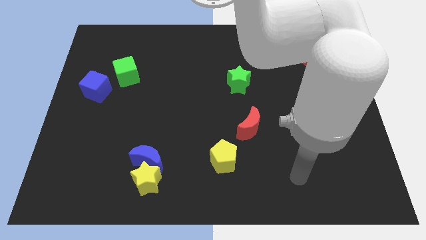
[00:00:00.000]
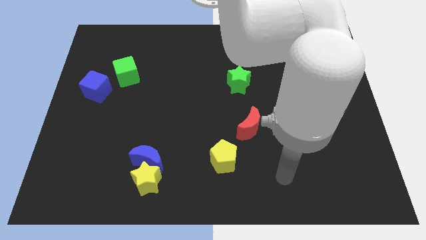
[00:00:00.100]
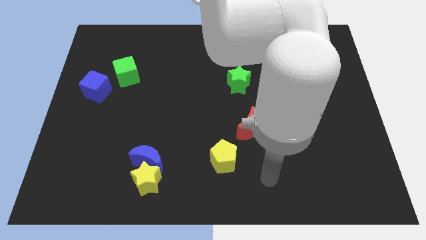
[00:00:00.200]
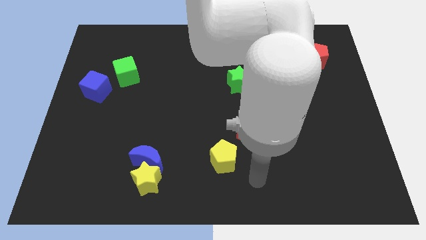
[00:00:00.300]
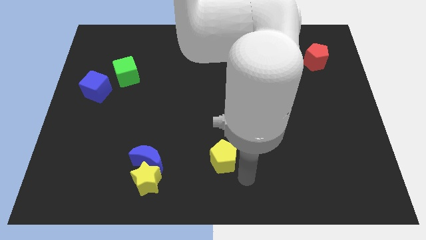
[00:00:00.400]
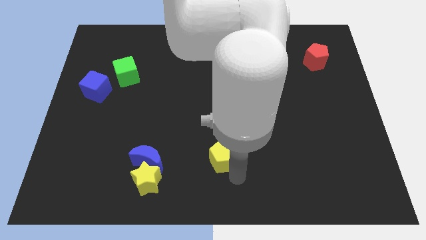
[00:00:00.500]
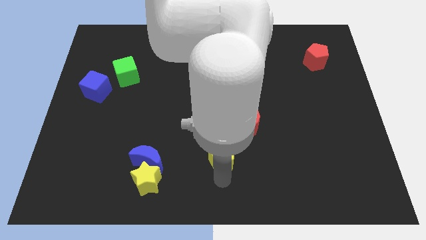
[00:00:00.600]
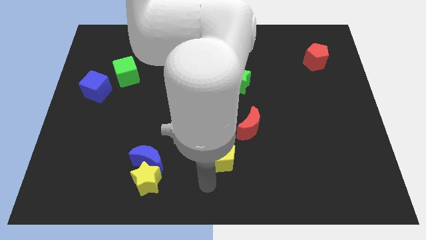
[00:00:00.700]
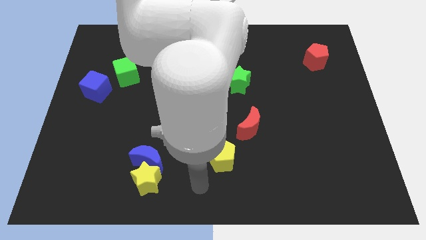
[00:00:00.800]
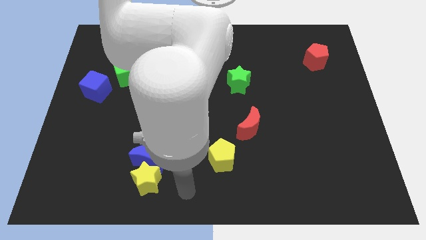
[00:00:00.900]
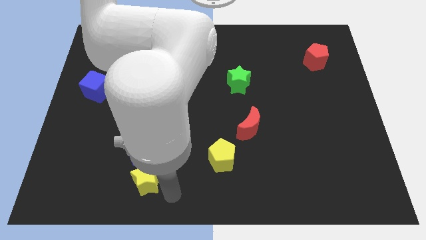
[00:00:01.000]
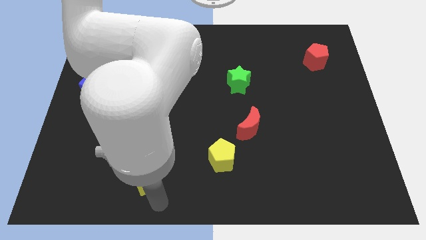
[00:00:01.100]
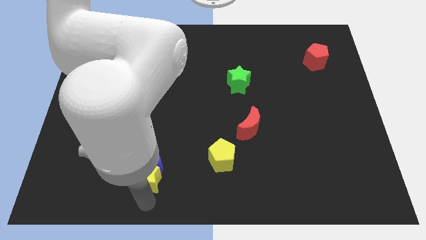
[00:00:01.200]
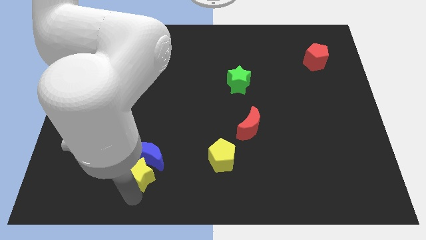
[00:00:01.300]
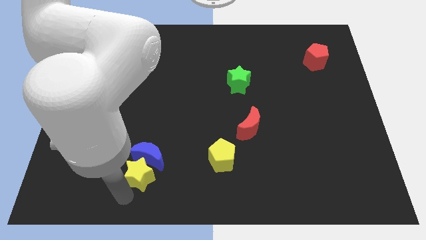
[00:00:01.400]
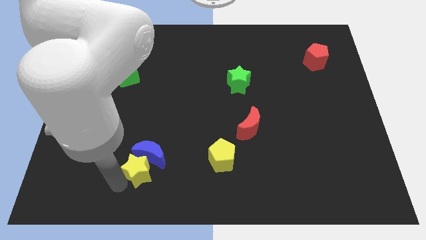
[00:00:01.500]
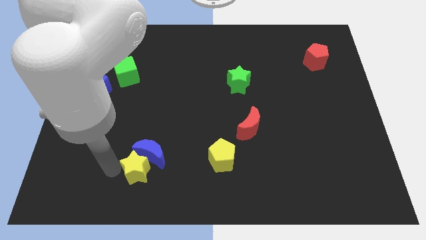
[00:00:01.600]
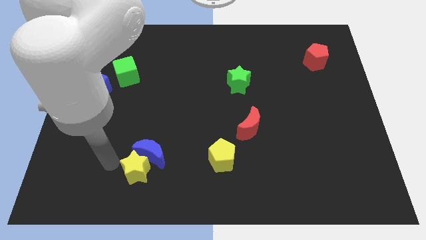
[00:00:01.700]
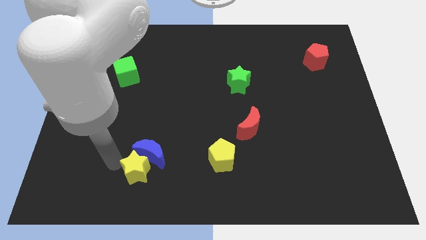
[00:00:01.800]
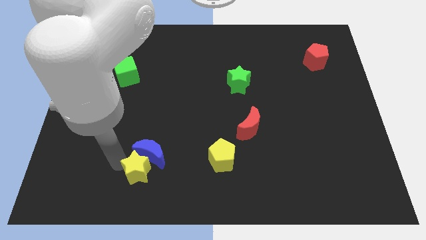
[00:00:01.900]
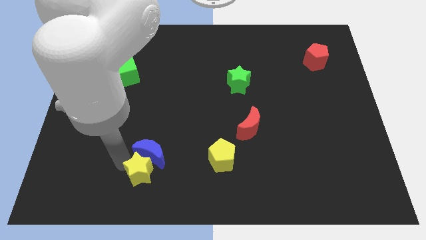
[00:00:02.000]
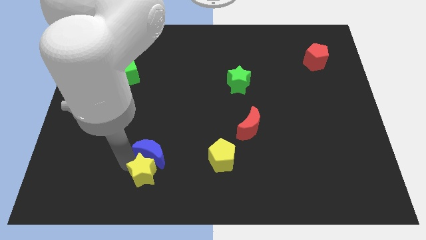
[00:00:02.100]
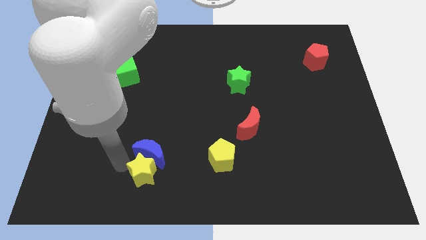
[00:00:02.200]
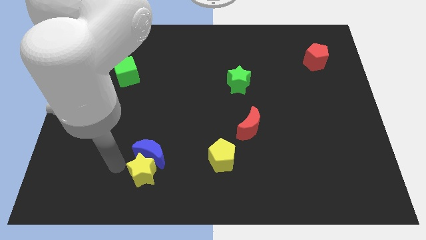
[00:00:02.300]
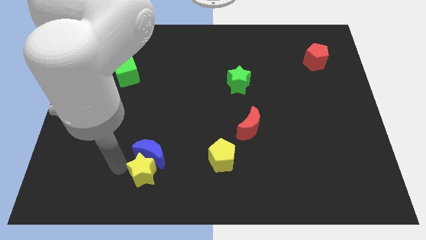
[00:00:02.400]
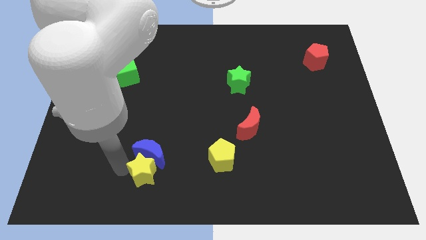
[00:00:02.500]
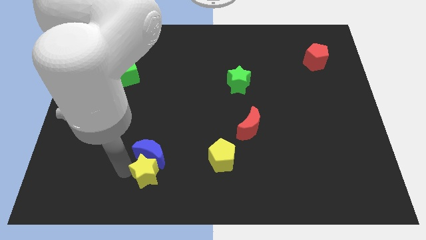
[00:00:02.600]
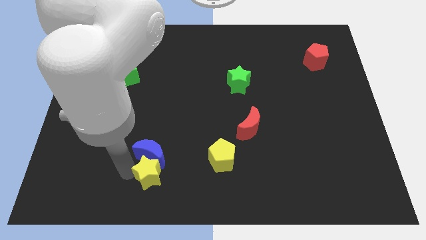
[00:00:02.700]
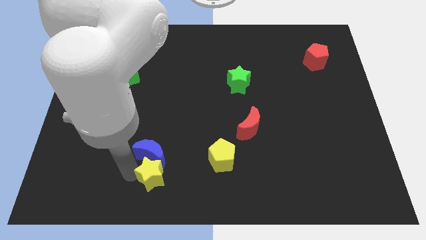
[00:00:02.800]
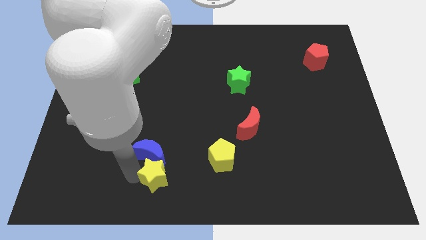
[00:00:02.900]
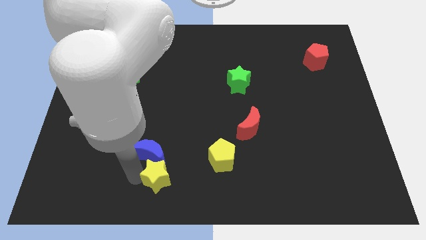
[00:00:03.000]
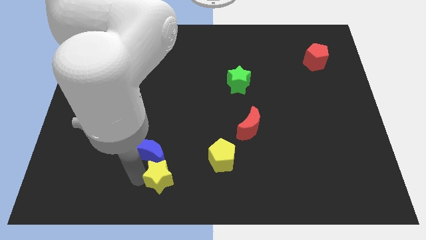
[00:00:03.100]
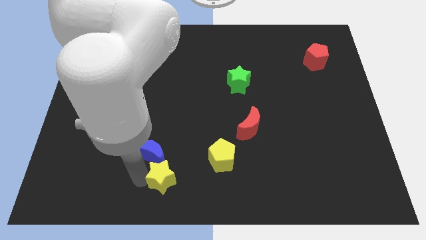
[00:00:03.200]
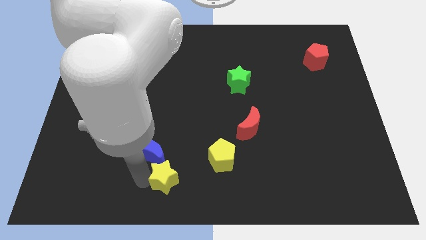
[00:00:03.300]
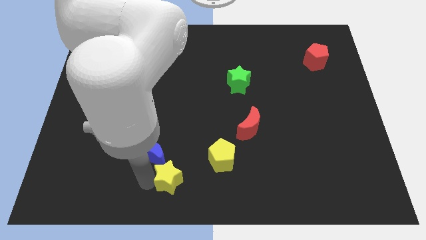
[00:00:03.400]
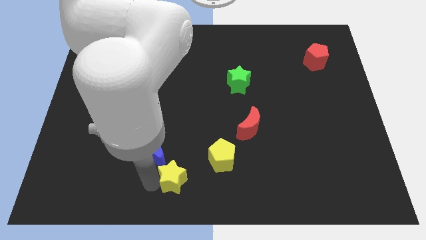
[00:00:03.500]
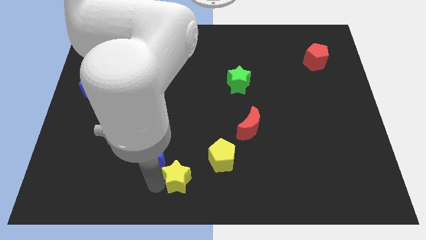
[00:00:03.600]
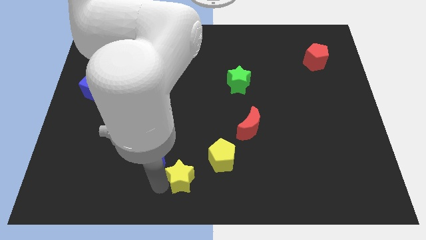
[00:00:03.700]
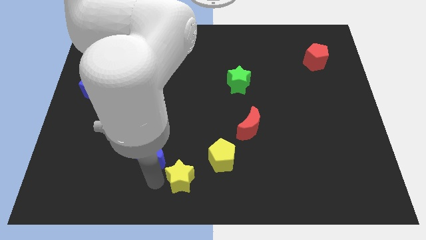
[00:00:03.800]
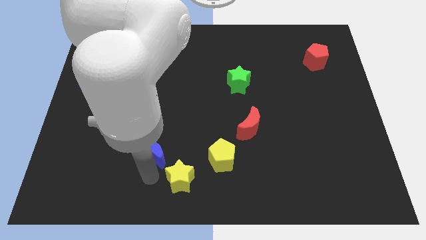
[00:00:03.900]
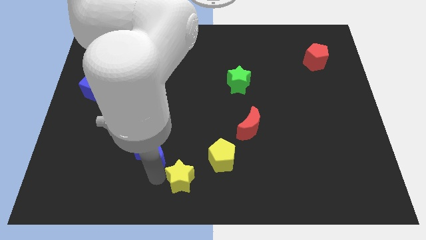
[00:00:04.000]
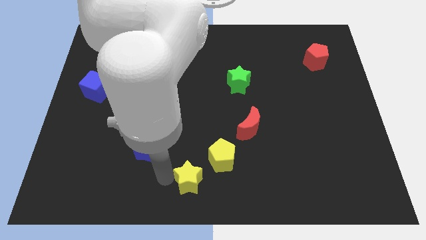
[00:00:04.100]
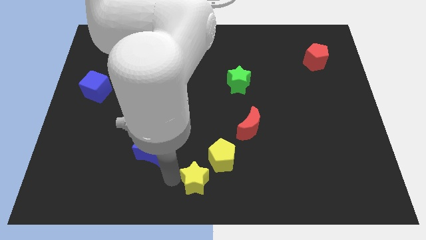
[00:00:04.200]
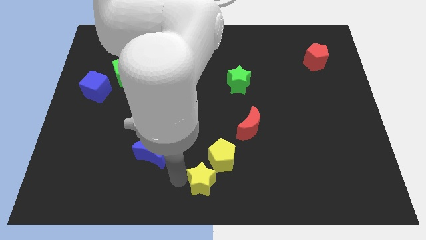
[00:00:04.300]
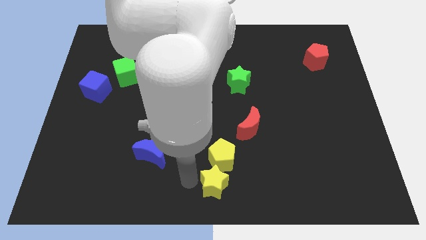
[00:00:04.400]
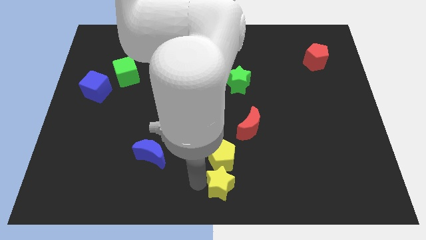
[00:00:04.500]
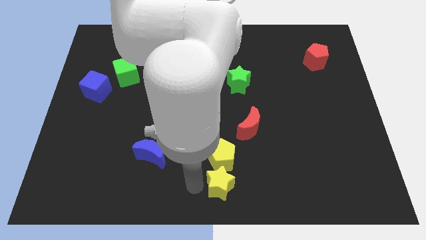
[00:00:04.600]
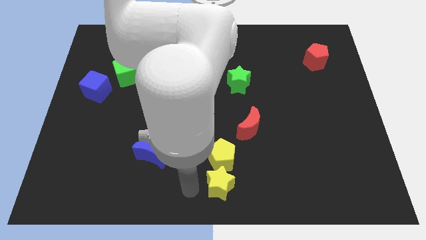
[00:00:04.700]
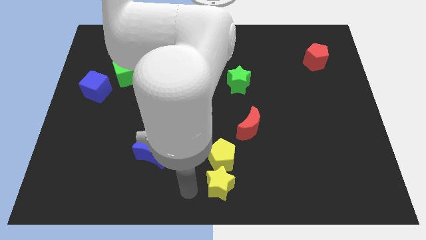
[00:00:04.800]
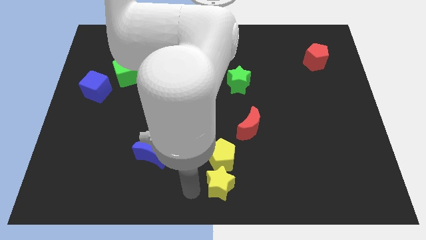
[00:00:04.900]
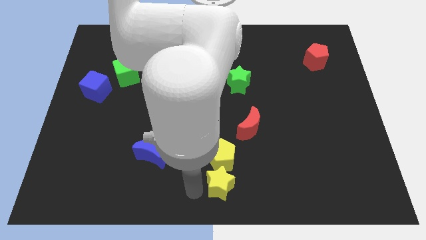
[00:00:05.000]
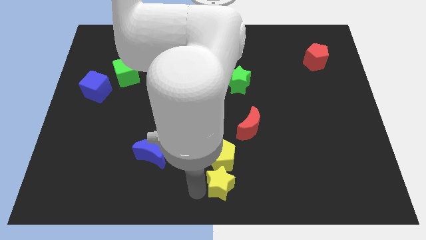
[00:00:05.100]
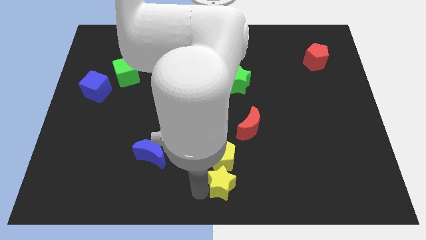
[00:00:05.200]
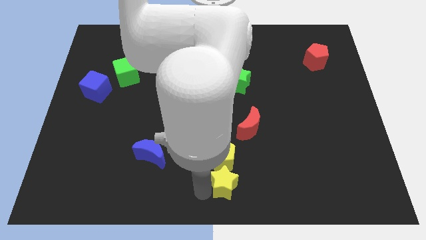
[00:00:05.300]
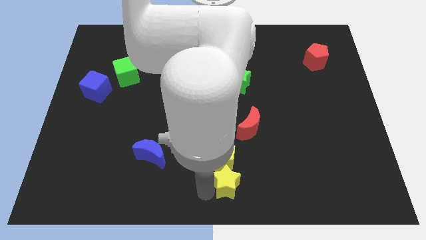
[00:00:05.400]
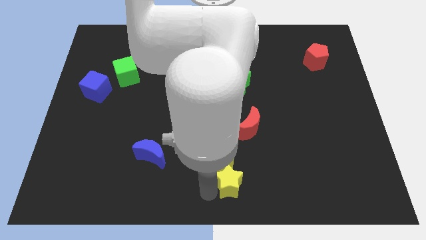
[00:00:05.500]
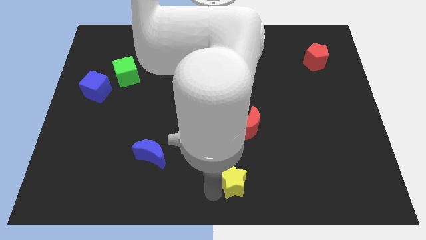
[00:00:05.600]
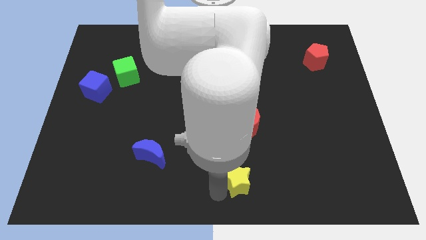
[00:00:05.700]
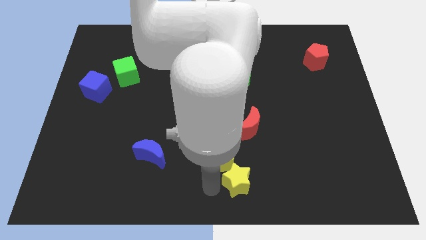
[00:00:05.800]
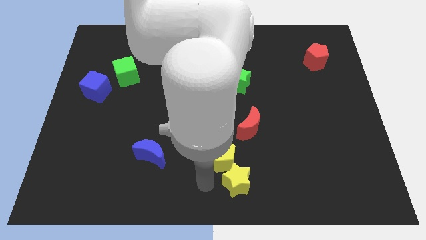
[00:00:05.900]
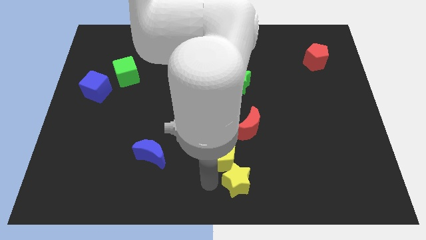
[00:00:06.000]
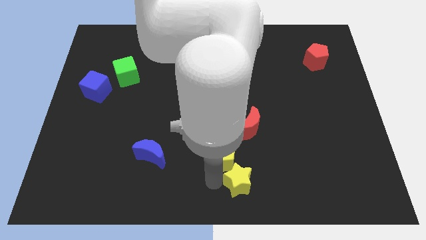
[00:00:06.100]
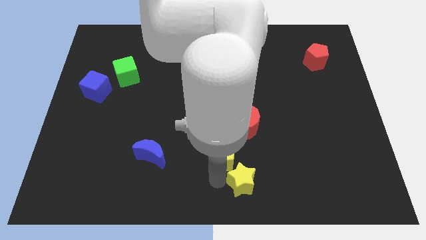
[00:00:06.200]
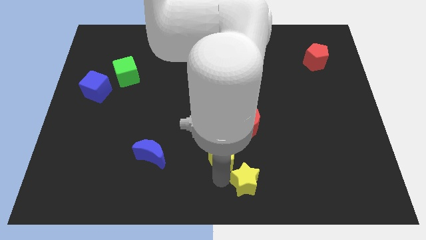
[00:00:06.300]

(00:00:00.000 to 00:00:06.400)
slide the yellow star right

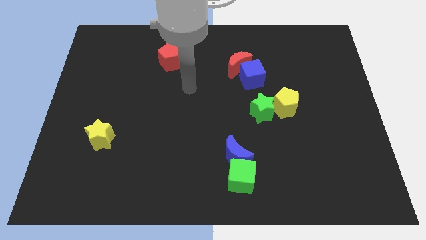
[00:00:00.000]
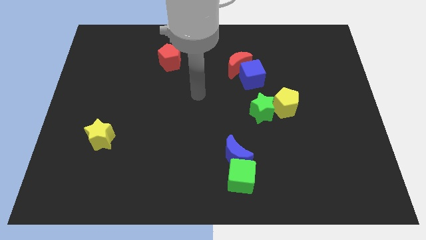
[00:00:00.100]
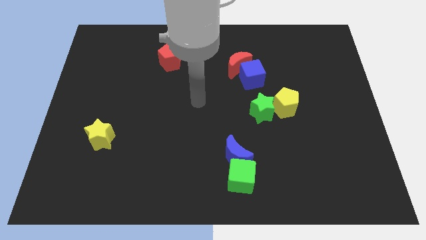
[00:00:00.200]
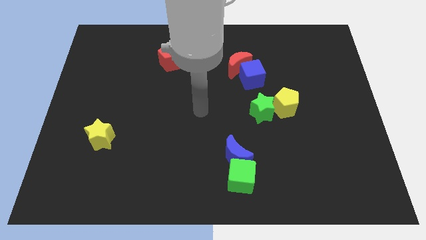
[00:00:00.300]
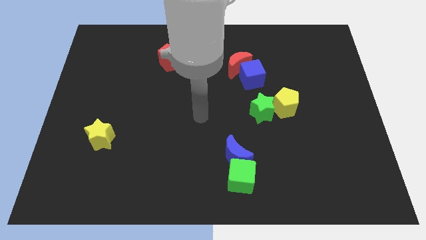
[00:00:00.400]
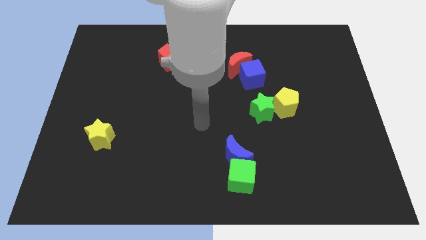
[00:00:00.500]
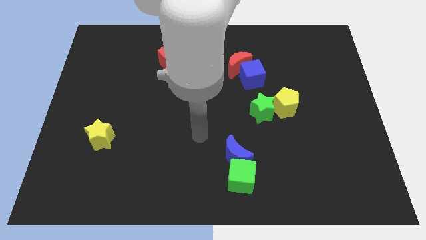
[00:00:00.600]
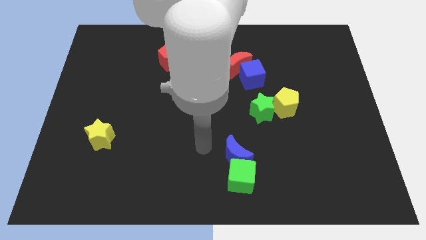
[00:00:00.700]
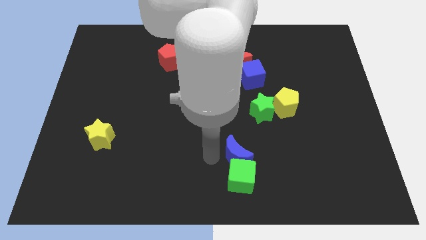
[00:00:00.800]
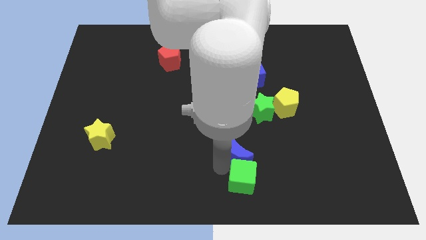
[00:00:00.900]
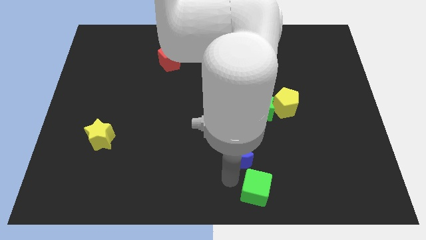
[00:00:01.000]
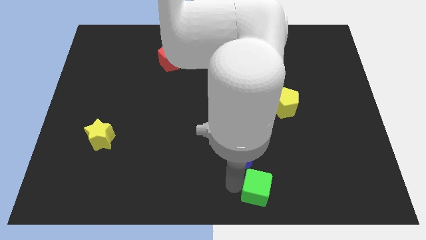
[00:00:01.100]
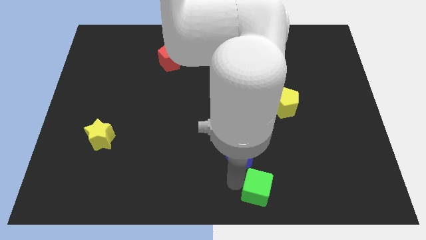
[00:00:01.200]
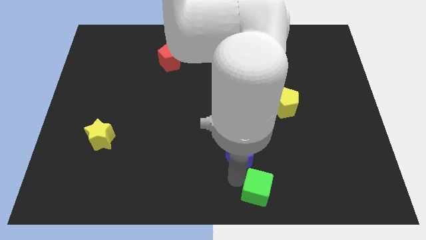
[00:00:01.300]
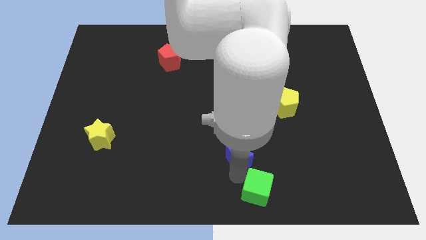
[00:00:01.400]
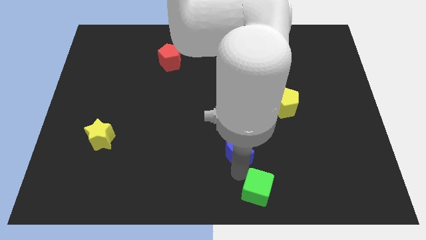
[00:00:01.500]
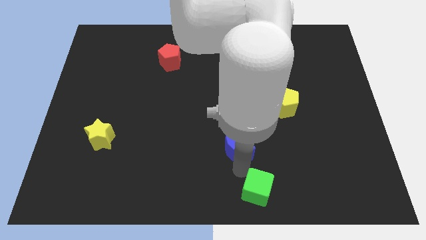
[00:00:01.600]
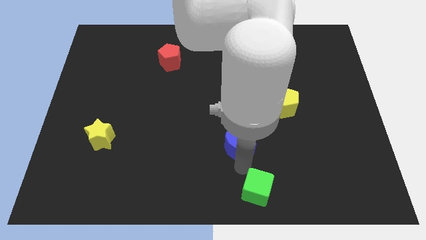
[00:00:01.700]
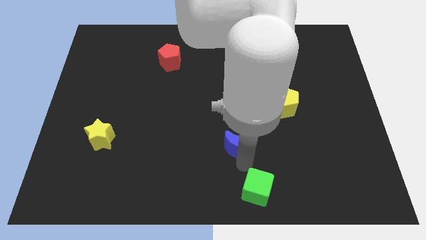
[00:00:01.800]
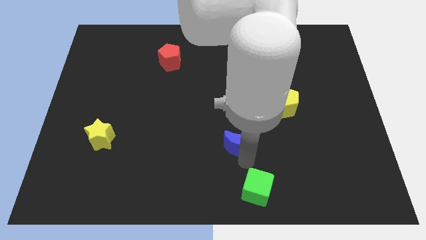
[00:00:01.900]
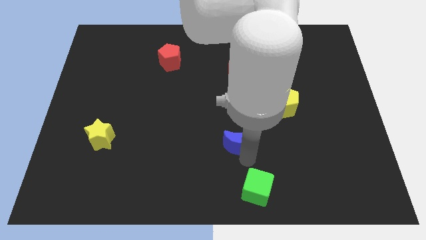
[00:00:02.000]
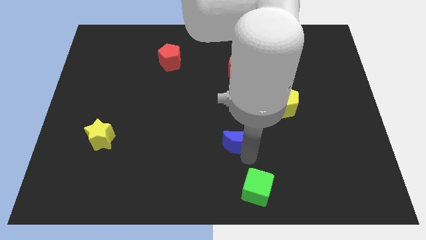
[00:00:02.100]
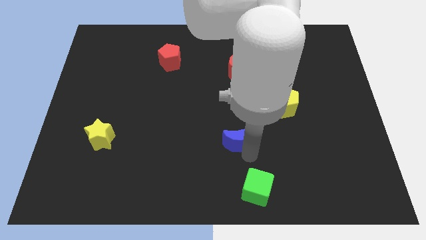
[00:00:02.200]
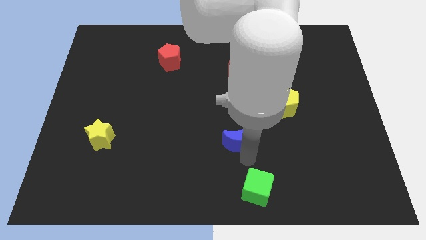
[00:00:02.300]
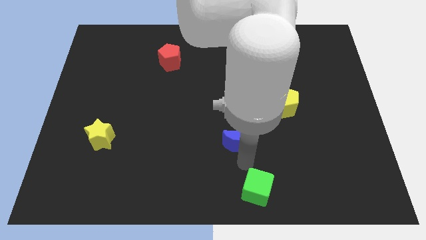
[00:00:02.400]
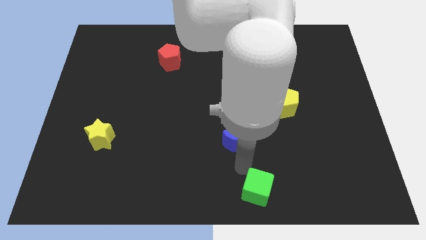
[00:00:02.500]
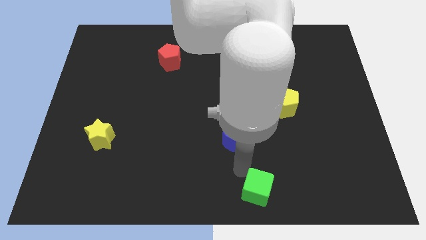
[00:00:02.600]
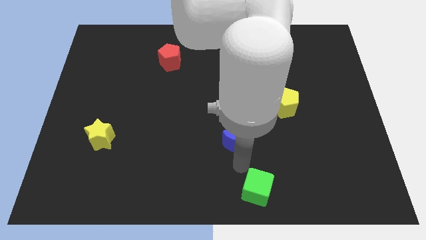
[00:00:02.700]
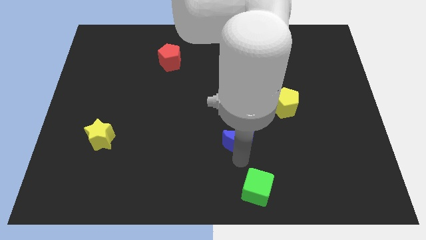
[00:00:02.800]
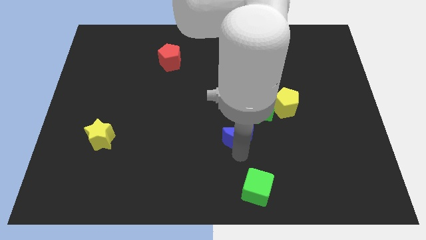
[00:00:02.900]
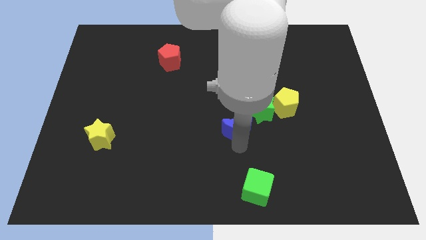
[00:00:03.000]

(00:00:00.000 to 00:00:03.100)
push the blue moon up slightly
